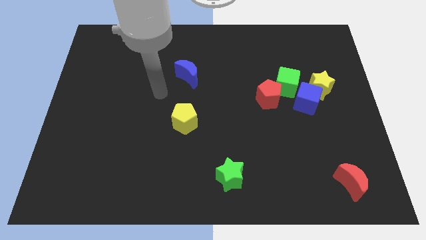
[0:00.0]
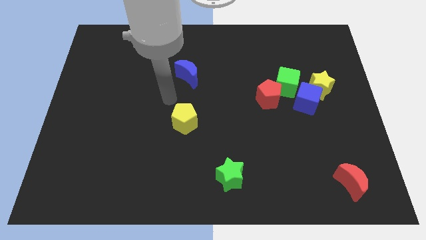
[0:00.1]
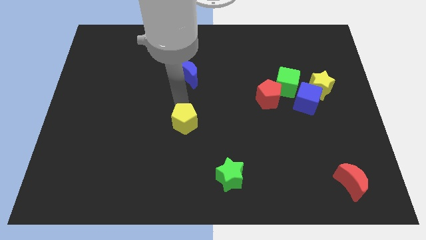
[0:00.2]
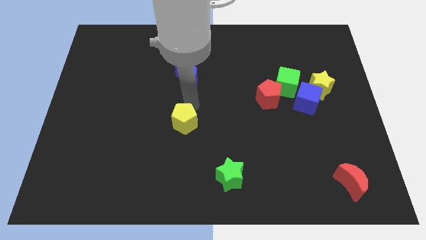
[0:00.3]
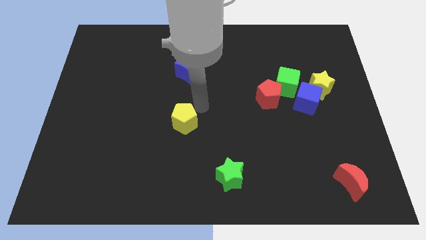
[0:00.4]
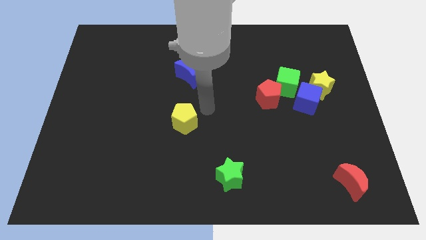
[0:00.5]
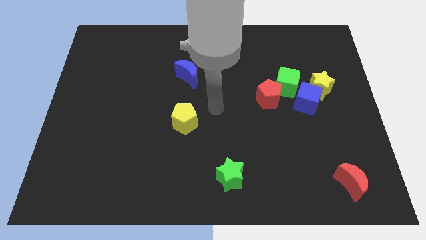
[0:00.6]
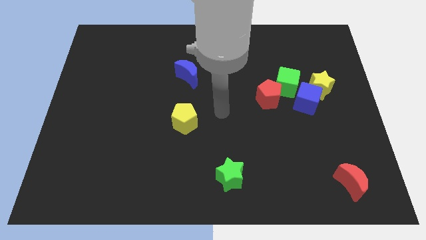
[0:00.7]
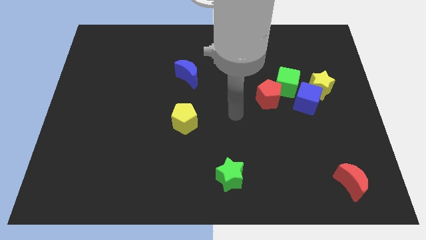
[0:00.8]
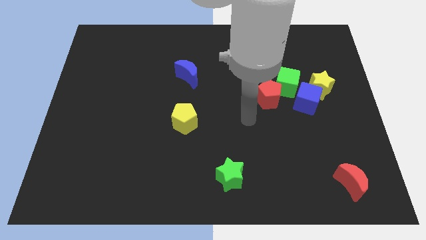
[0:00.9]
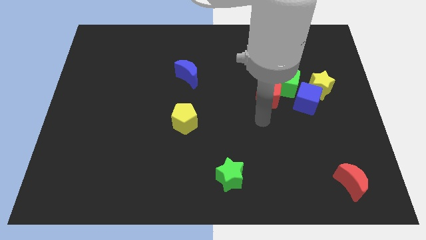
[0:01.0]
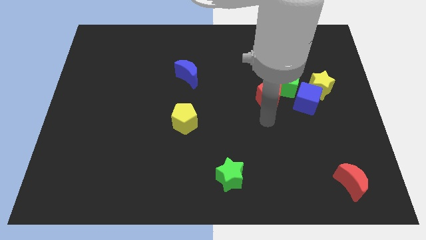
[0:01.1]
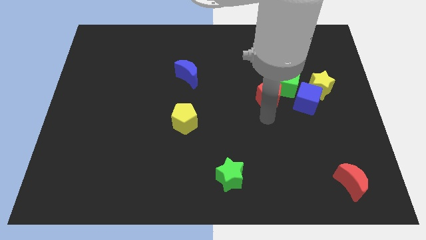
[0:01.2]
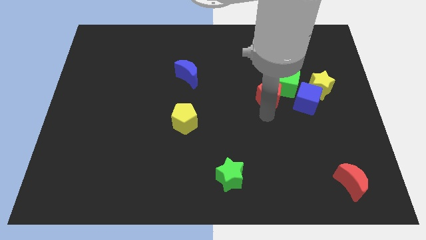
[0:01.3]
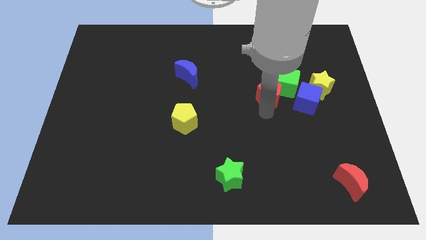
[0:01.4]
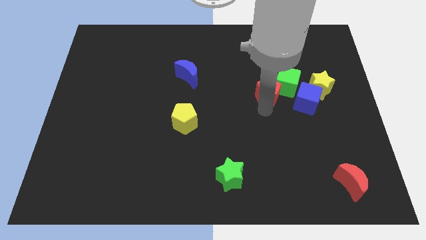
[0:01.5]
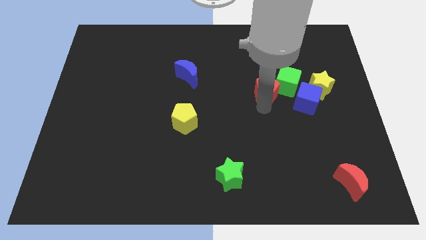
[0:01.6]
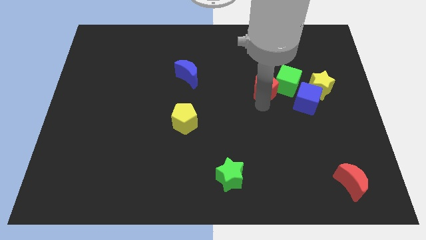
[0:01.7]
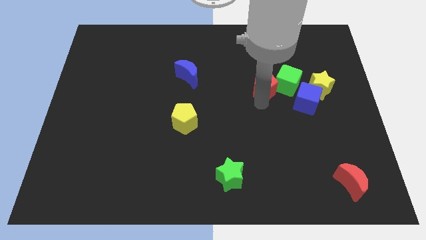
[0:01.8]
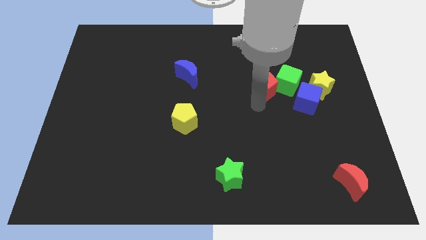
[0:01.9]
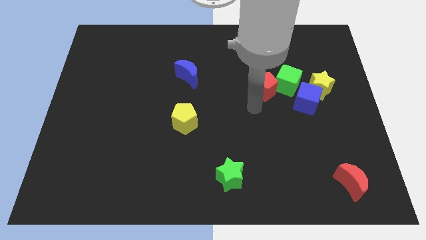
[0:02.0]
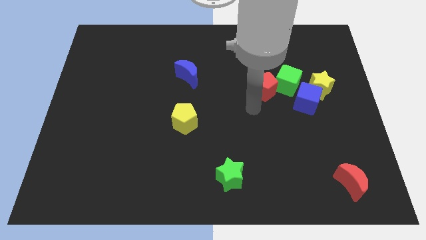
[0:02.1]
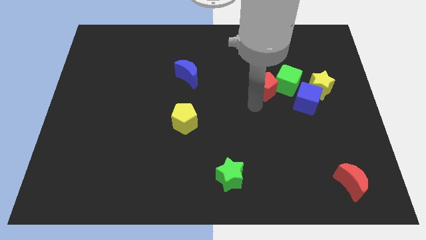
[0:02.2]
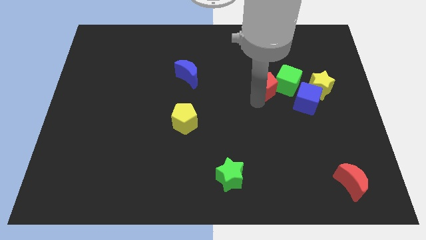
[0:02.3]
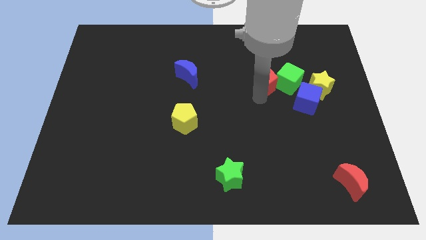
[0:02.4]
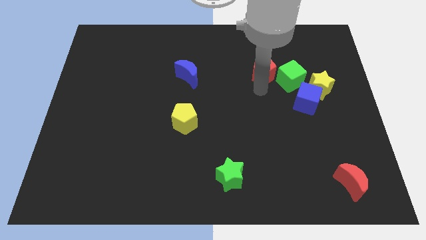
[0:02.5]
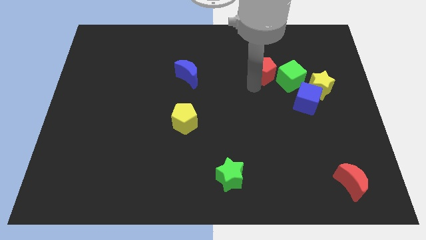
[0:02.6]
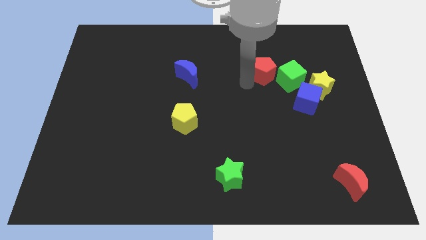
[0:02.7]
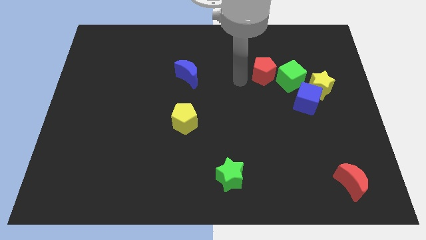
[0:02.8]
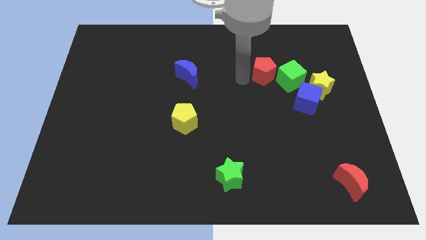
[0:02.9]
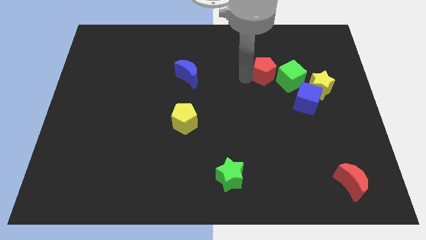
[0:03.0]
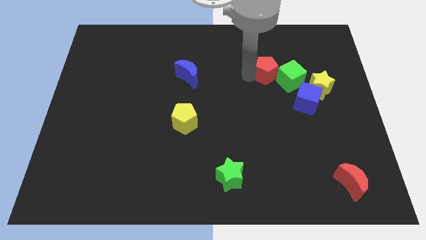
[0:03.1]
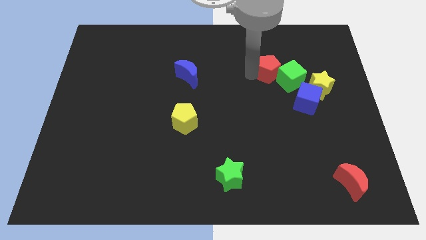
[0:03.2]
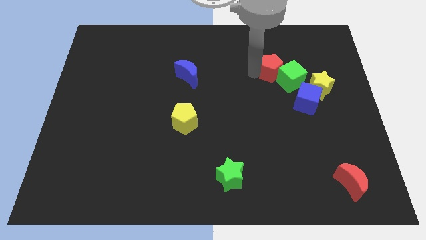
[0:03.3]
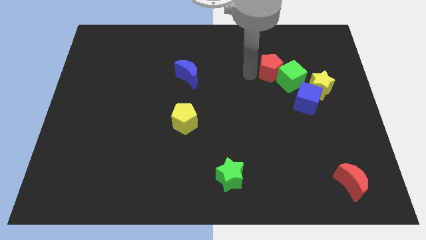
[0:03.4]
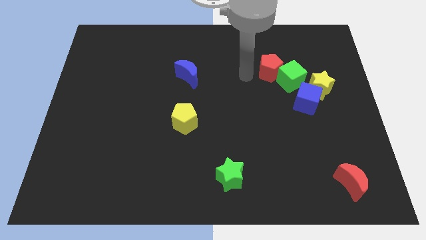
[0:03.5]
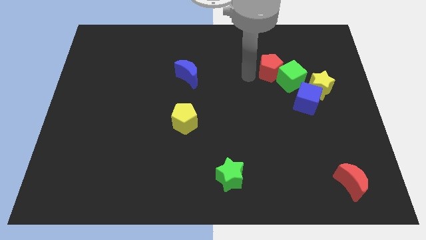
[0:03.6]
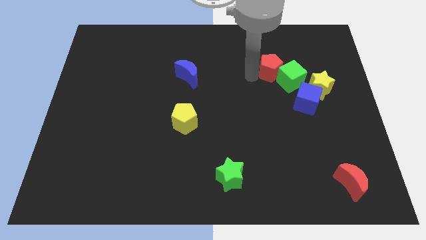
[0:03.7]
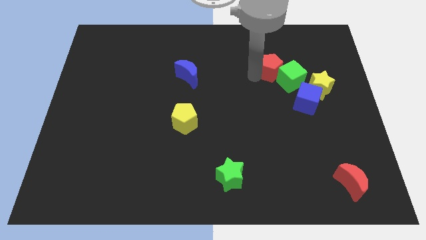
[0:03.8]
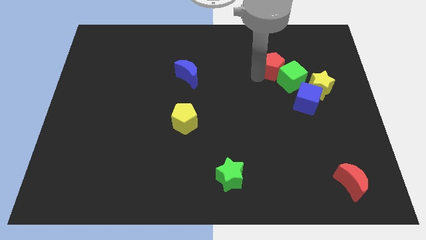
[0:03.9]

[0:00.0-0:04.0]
slightly slide the red pentagon upwards and right

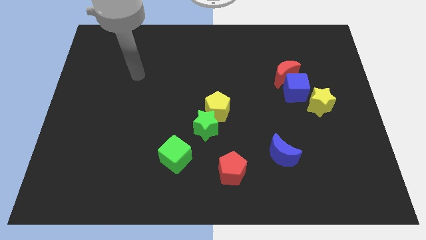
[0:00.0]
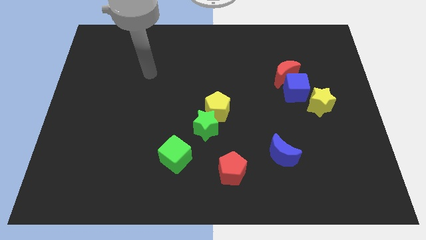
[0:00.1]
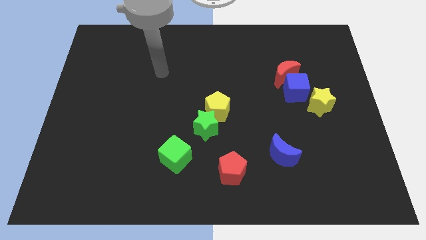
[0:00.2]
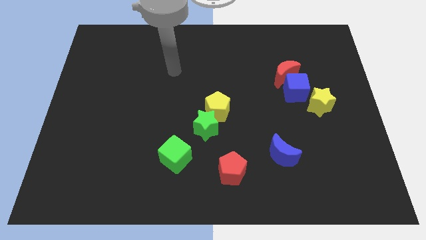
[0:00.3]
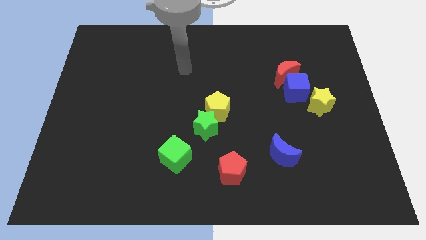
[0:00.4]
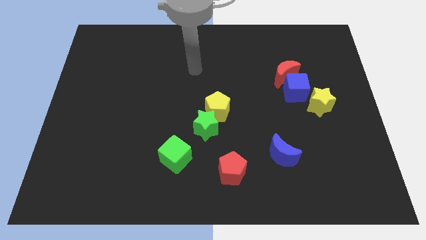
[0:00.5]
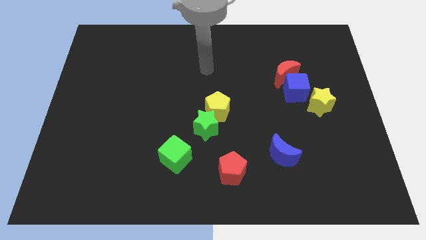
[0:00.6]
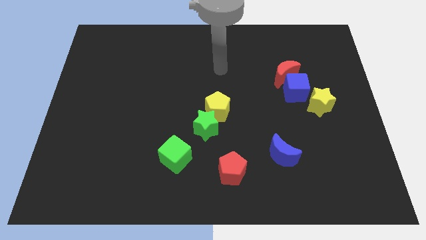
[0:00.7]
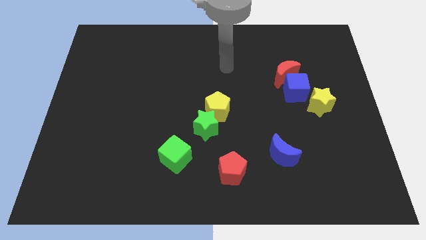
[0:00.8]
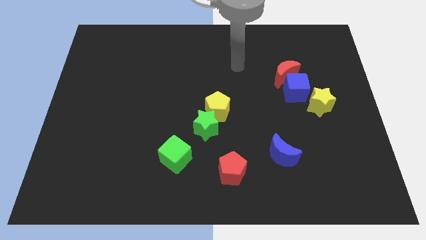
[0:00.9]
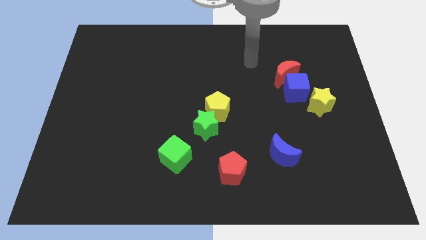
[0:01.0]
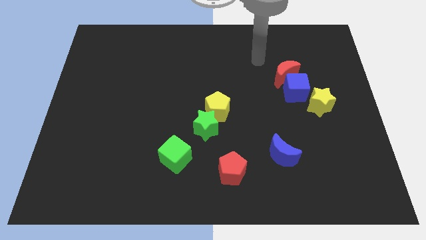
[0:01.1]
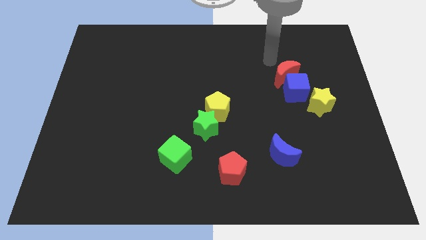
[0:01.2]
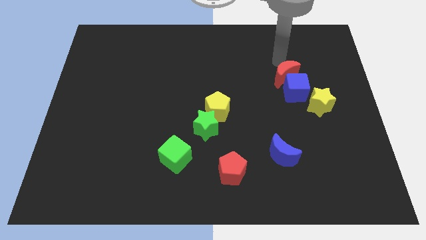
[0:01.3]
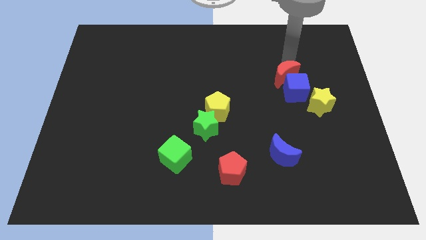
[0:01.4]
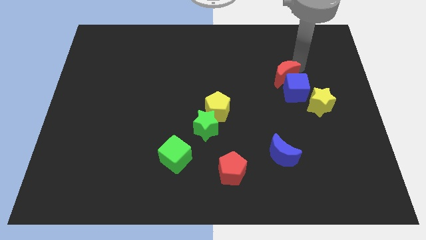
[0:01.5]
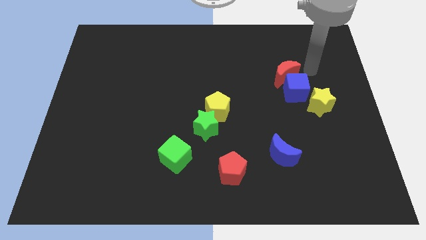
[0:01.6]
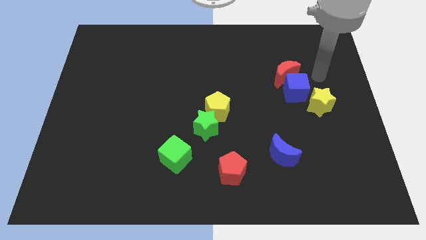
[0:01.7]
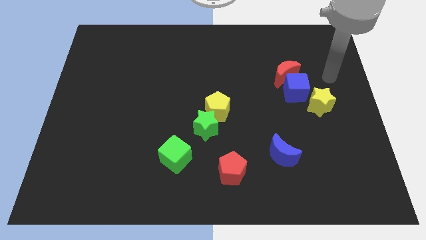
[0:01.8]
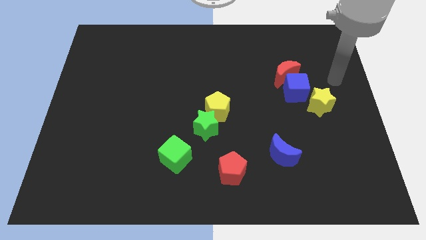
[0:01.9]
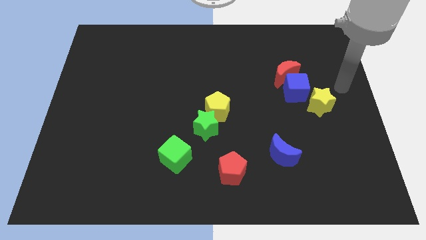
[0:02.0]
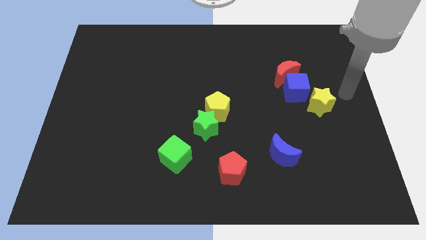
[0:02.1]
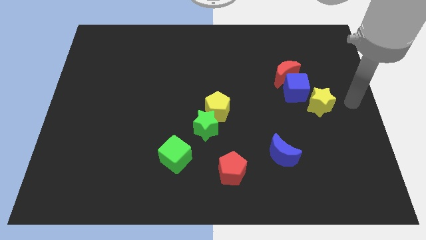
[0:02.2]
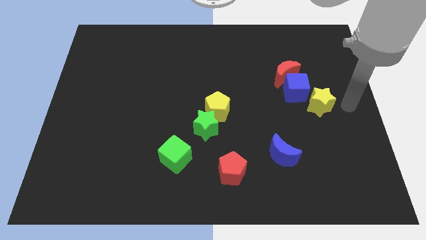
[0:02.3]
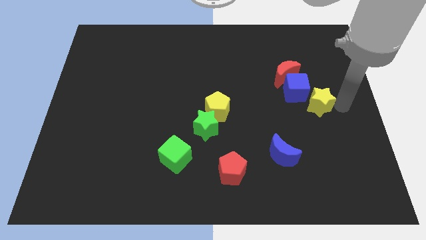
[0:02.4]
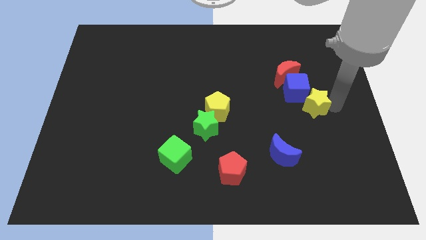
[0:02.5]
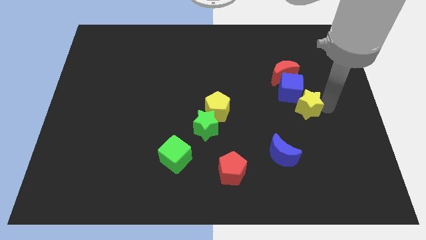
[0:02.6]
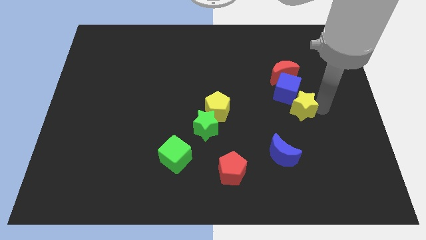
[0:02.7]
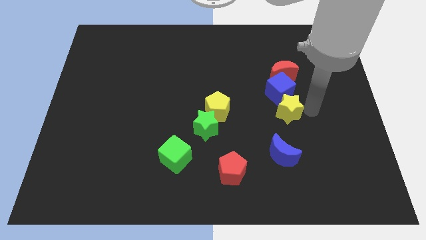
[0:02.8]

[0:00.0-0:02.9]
slightly push the yellow star left

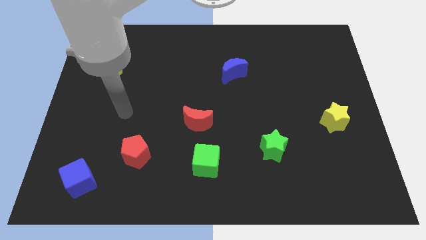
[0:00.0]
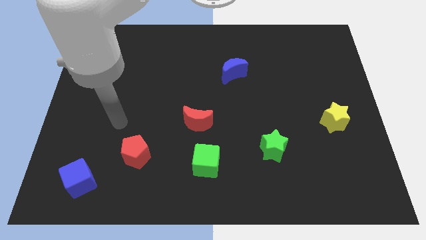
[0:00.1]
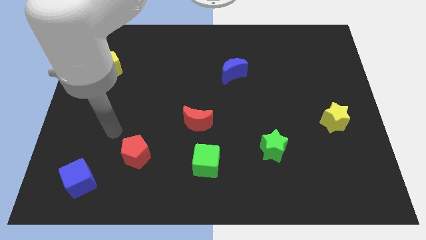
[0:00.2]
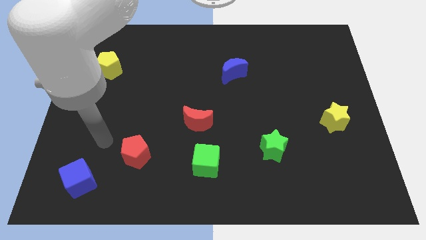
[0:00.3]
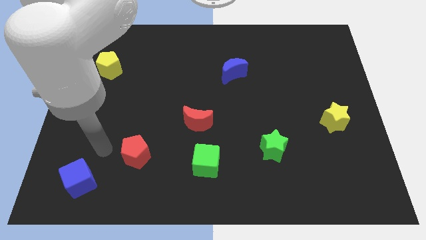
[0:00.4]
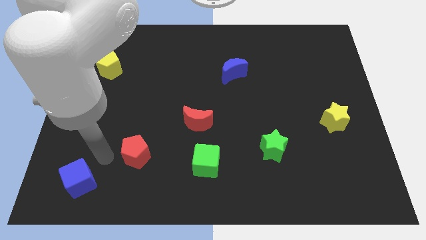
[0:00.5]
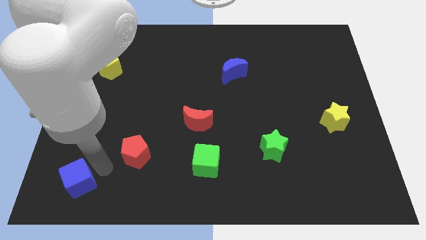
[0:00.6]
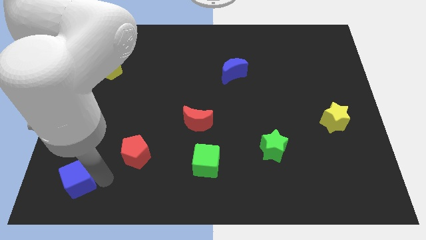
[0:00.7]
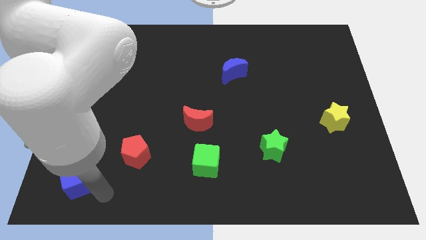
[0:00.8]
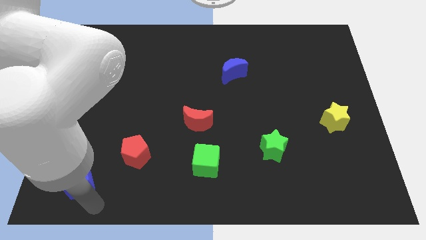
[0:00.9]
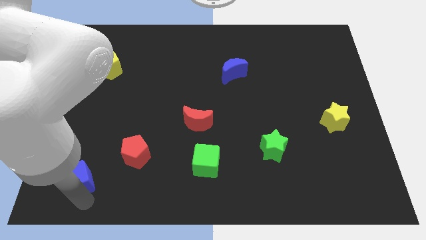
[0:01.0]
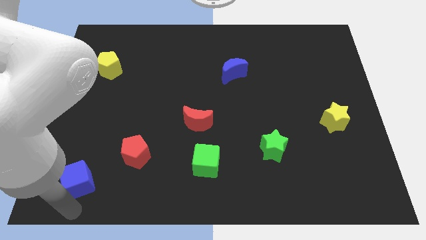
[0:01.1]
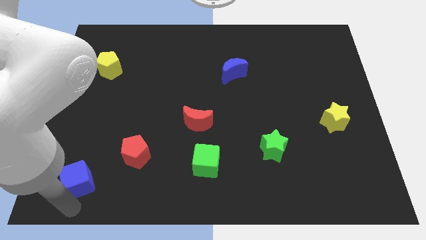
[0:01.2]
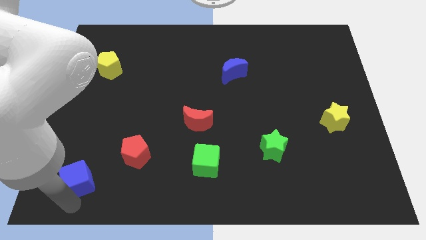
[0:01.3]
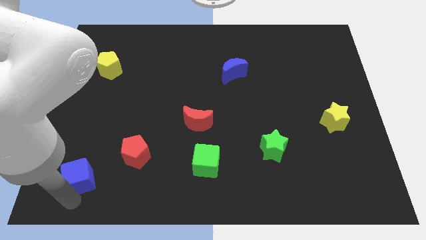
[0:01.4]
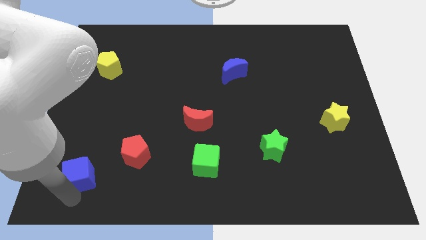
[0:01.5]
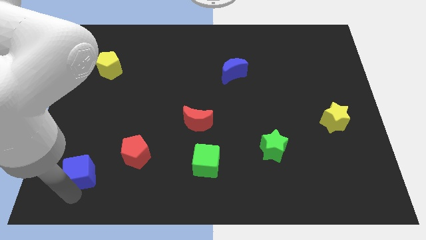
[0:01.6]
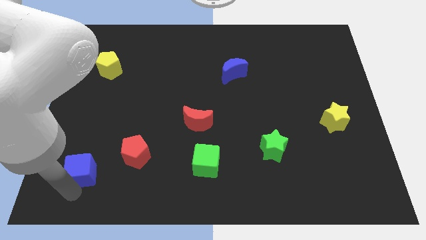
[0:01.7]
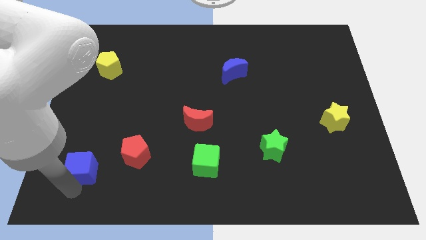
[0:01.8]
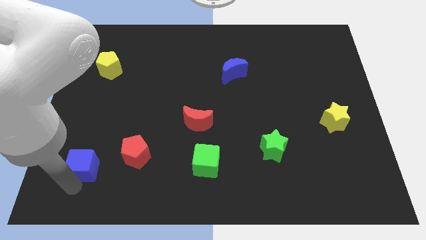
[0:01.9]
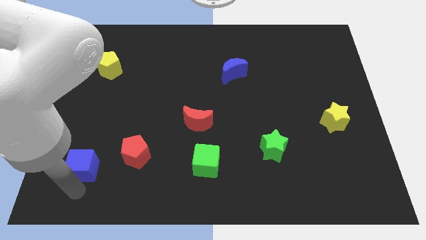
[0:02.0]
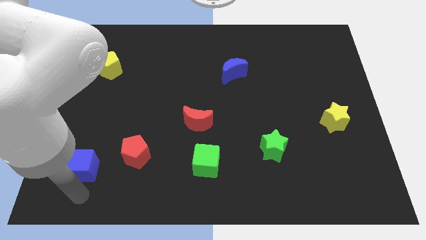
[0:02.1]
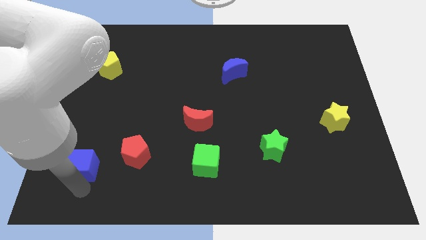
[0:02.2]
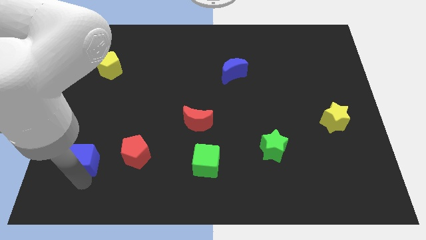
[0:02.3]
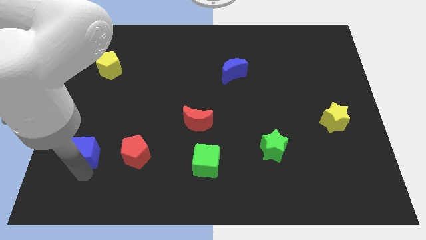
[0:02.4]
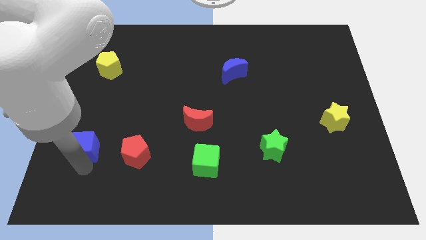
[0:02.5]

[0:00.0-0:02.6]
push the blue cube up slightly
